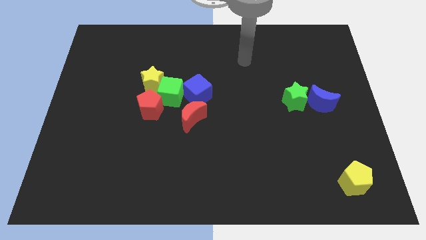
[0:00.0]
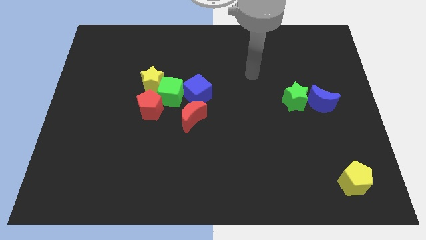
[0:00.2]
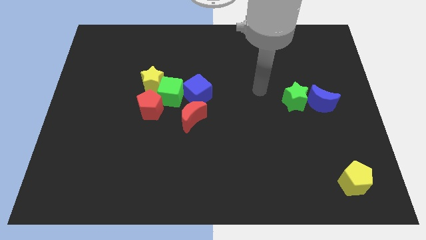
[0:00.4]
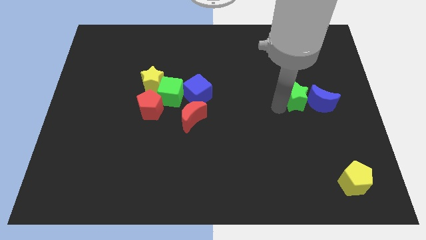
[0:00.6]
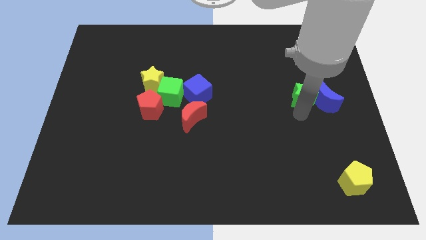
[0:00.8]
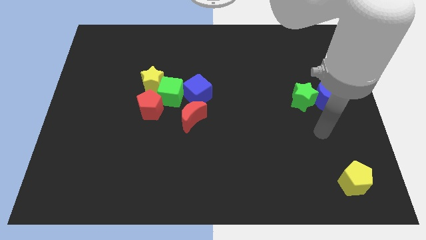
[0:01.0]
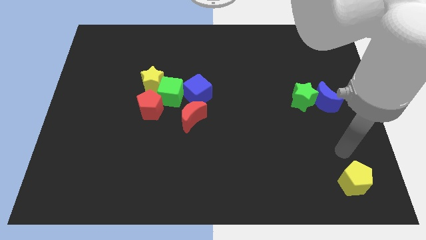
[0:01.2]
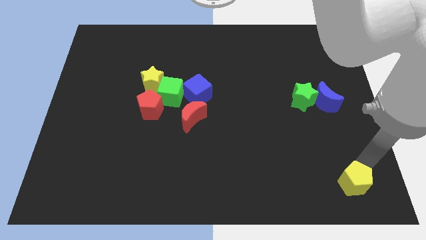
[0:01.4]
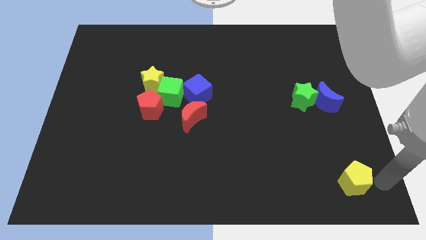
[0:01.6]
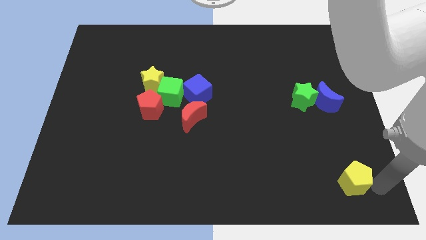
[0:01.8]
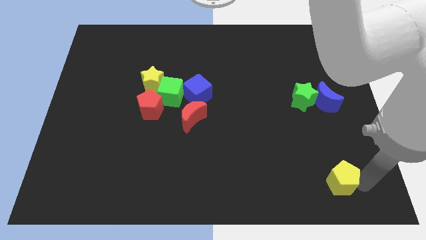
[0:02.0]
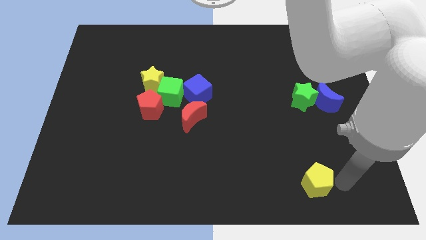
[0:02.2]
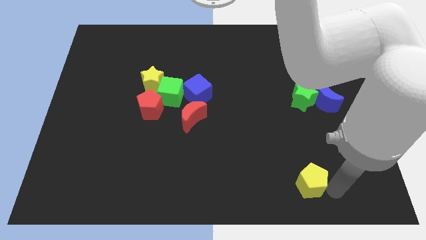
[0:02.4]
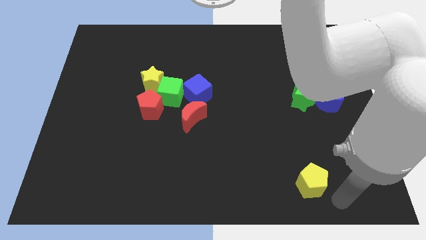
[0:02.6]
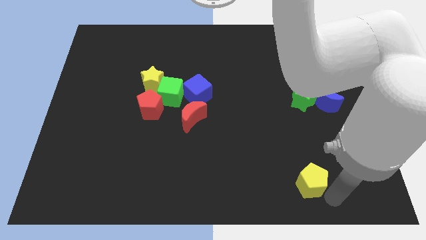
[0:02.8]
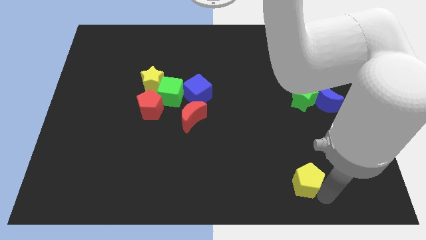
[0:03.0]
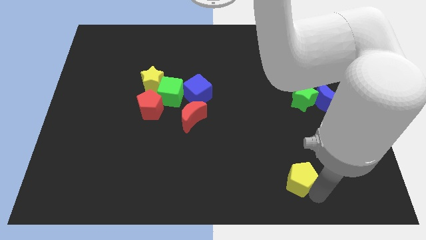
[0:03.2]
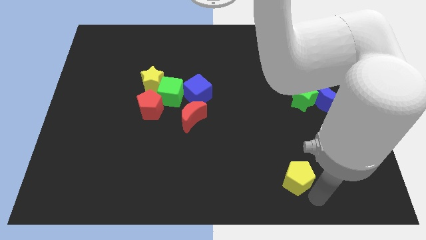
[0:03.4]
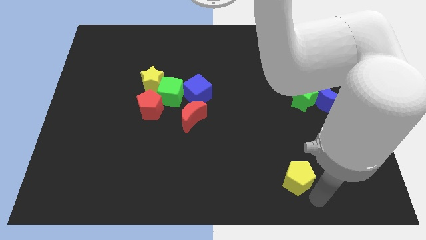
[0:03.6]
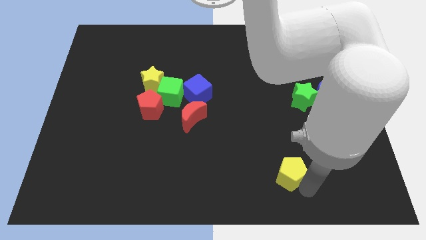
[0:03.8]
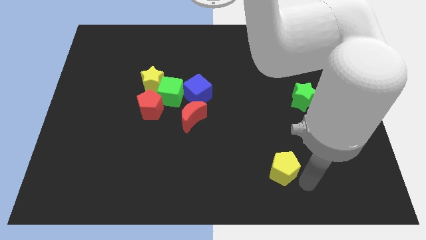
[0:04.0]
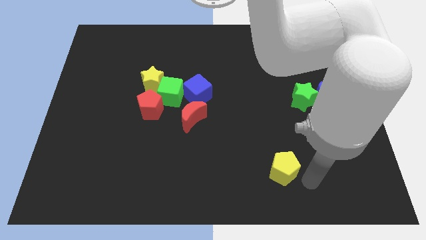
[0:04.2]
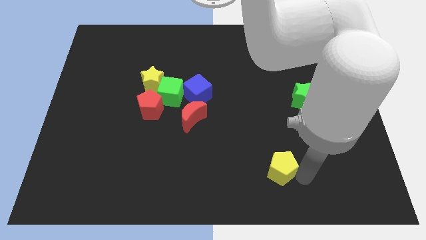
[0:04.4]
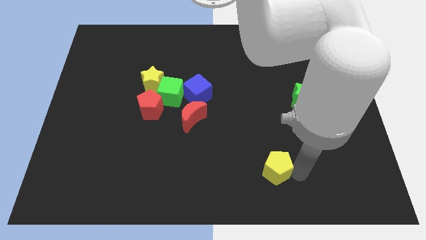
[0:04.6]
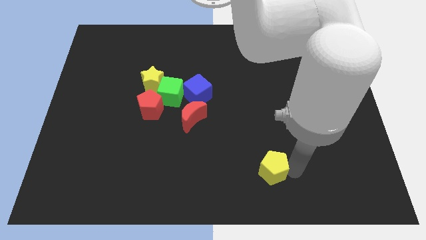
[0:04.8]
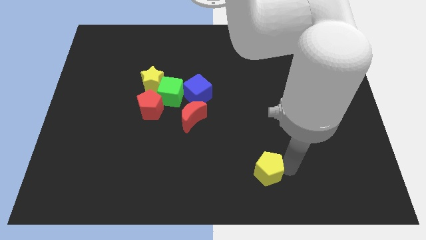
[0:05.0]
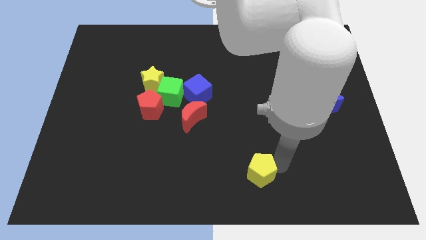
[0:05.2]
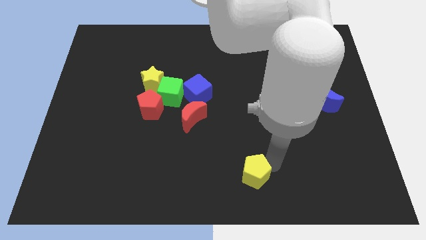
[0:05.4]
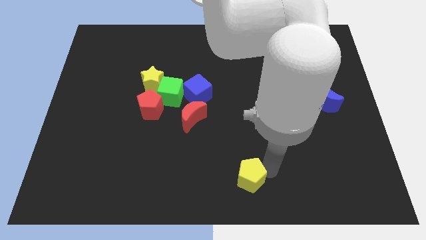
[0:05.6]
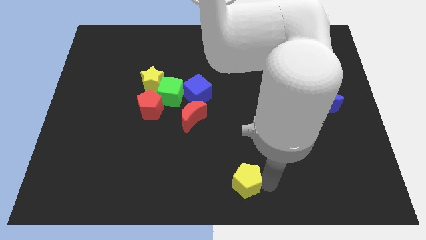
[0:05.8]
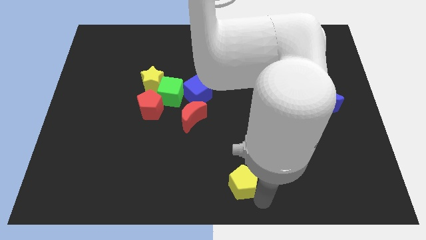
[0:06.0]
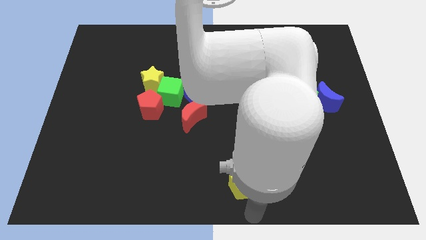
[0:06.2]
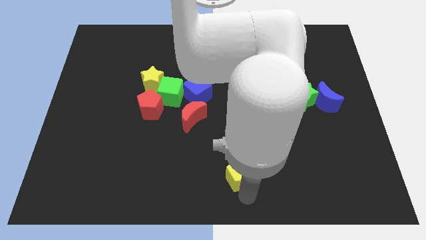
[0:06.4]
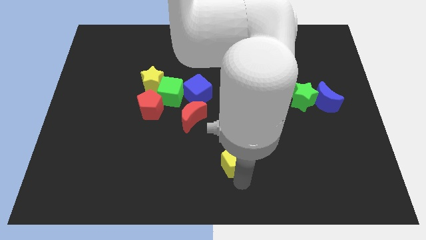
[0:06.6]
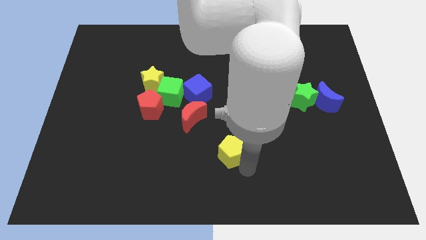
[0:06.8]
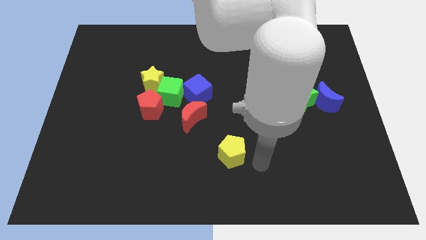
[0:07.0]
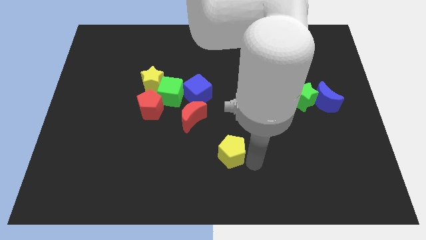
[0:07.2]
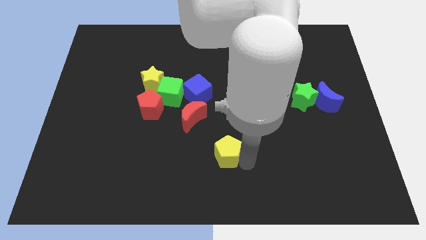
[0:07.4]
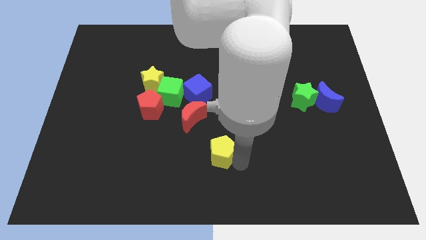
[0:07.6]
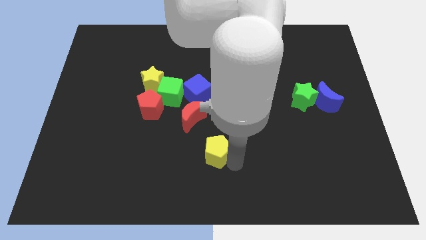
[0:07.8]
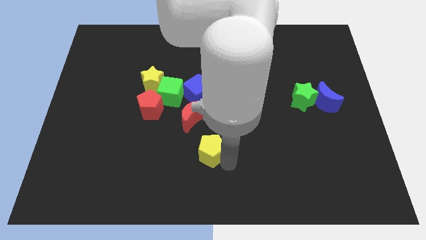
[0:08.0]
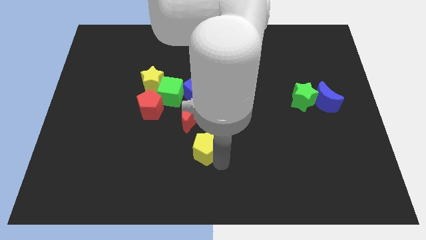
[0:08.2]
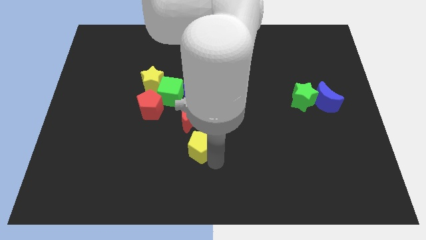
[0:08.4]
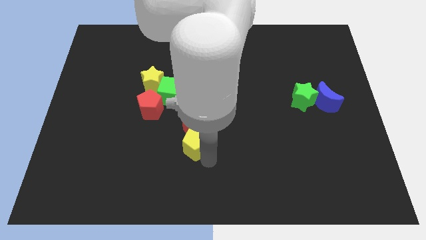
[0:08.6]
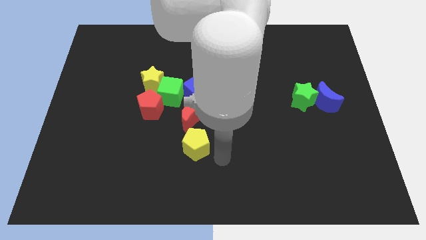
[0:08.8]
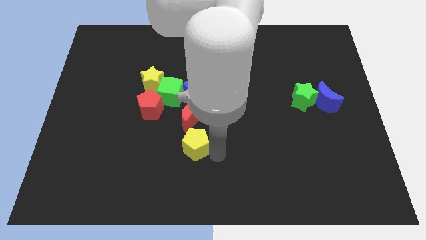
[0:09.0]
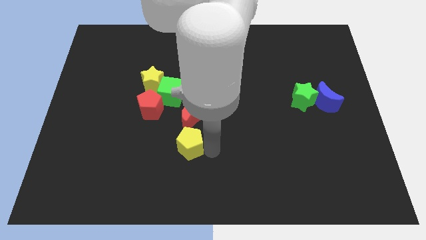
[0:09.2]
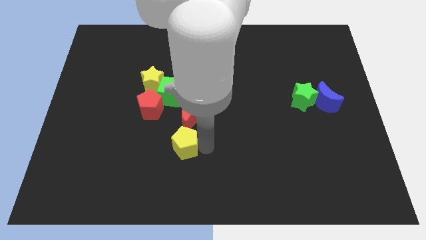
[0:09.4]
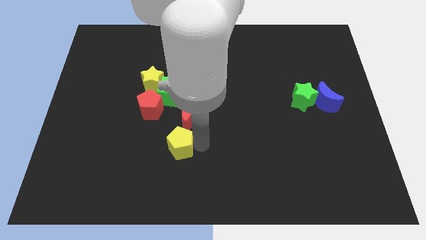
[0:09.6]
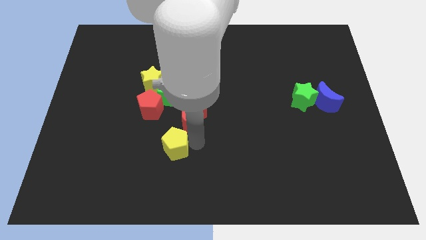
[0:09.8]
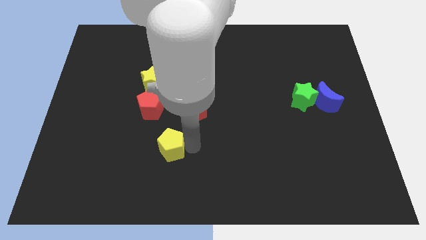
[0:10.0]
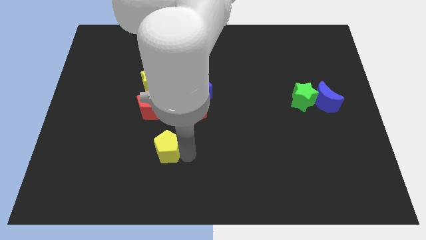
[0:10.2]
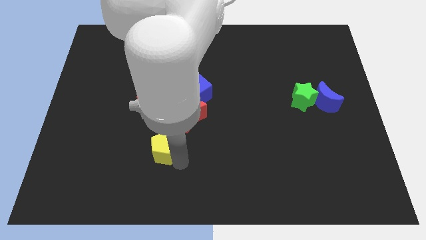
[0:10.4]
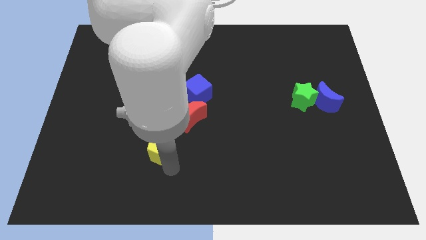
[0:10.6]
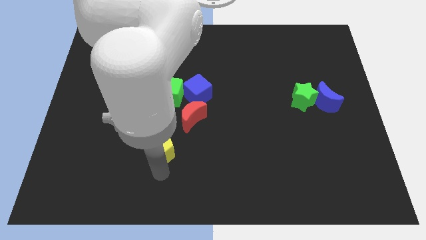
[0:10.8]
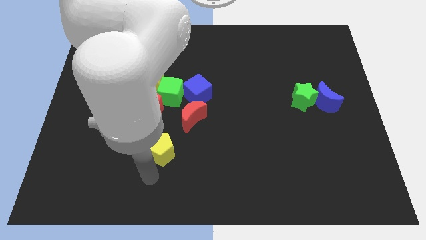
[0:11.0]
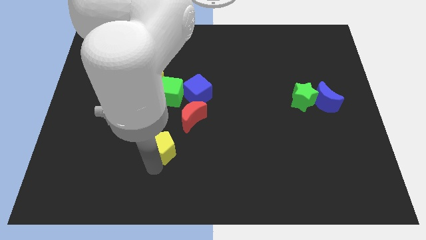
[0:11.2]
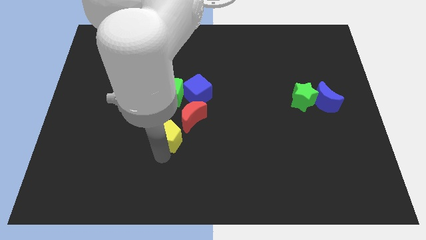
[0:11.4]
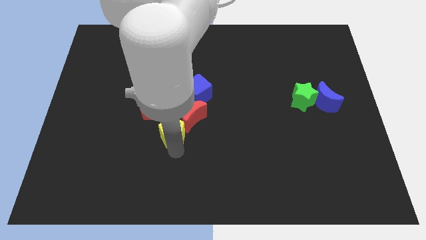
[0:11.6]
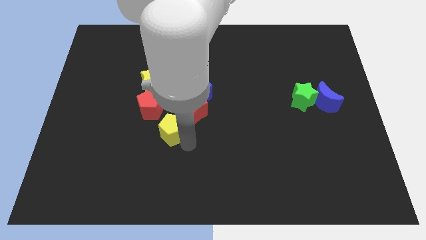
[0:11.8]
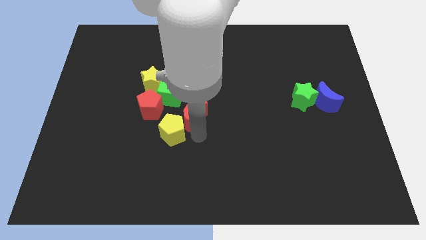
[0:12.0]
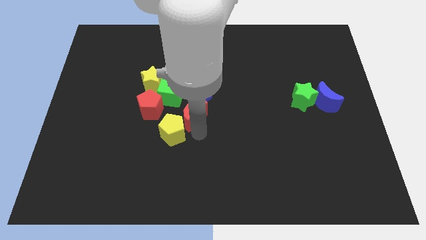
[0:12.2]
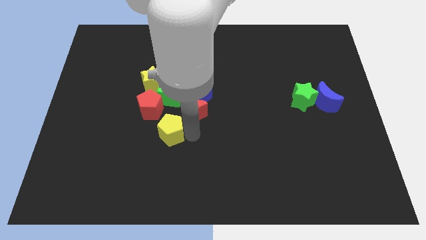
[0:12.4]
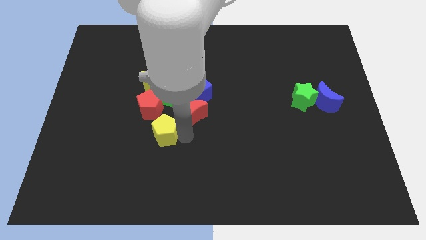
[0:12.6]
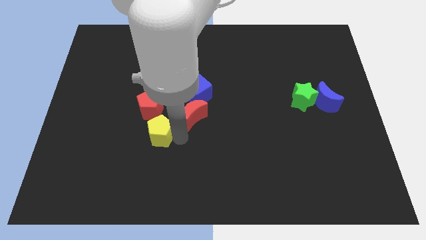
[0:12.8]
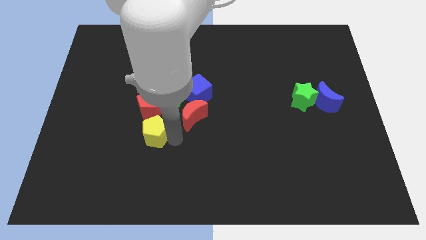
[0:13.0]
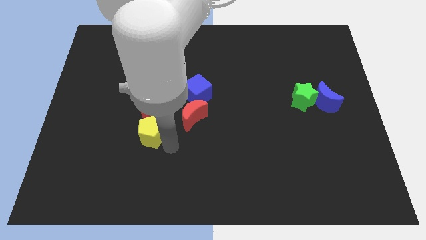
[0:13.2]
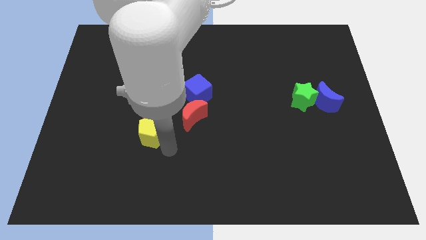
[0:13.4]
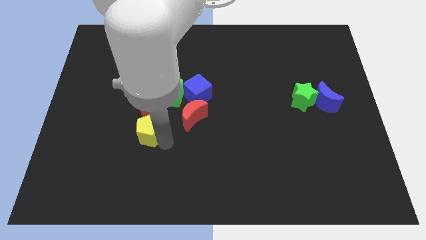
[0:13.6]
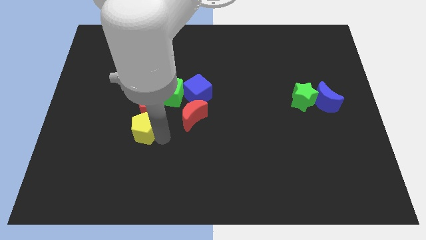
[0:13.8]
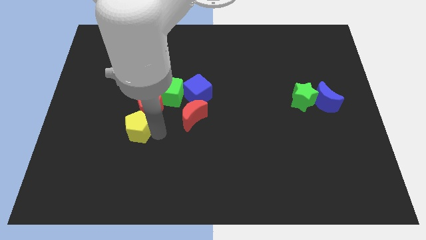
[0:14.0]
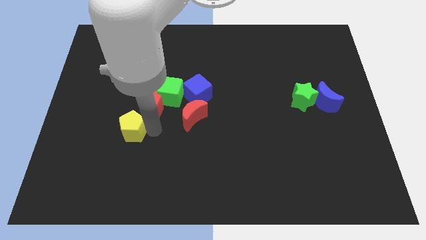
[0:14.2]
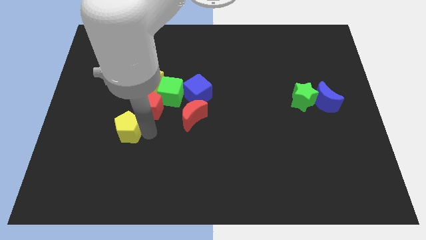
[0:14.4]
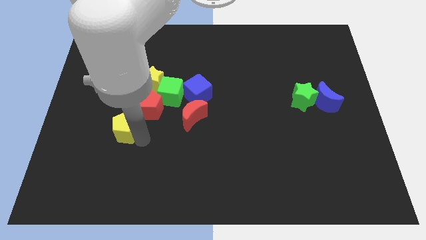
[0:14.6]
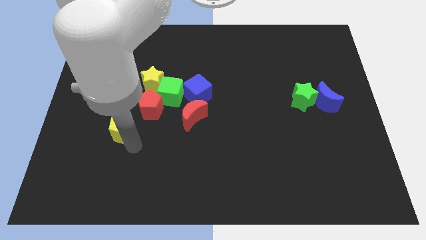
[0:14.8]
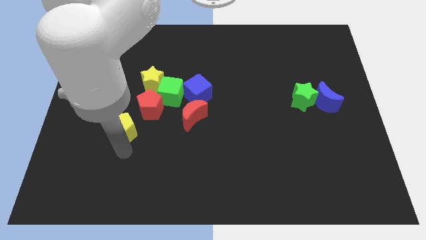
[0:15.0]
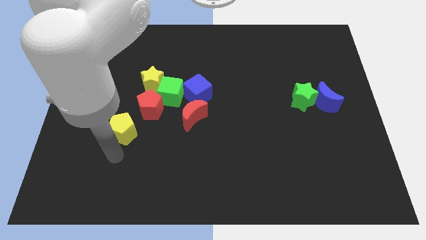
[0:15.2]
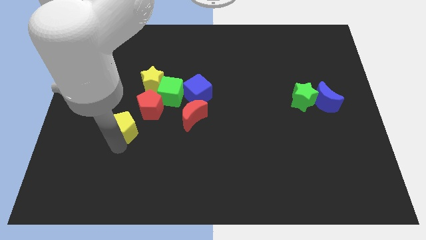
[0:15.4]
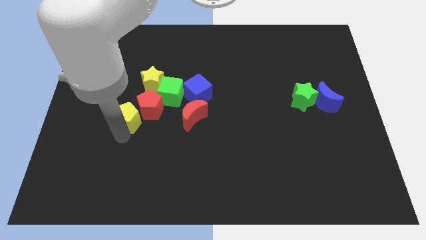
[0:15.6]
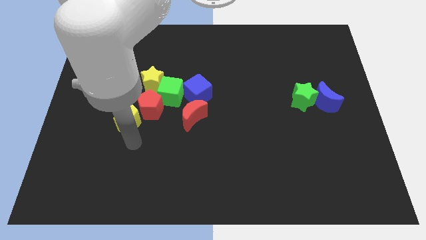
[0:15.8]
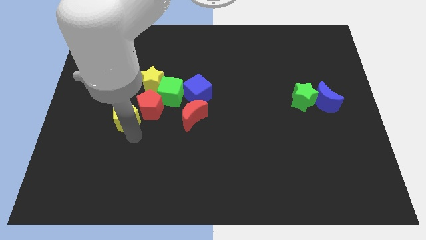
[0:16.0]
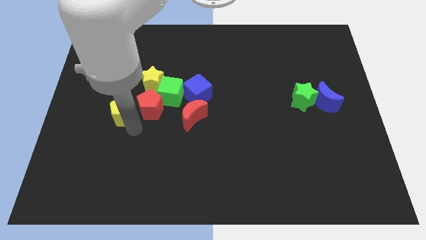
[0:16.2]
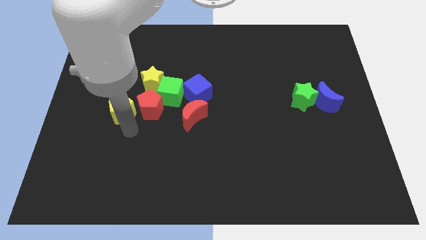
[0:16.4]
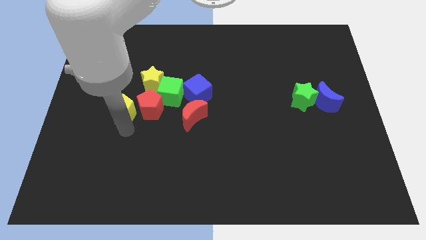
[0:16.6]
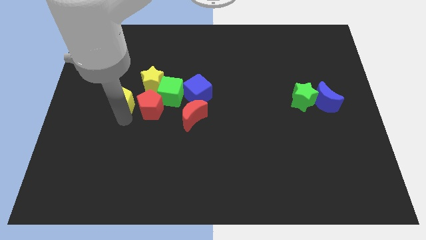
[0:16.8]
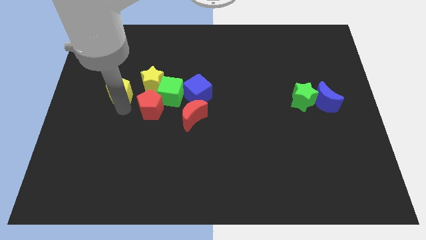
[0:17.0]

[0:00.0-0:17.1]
move the yellow pentagon just left of the yellow star
